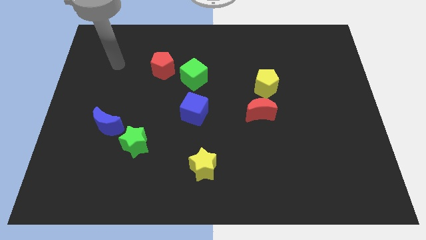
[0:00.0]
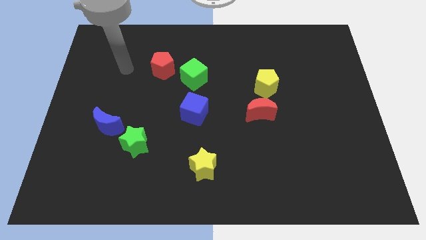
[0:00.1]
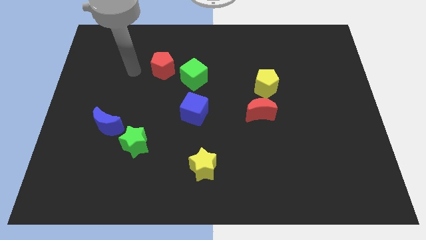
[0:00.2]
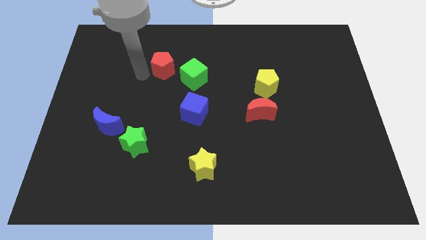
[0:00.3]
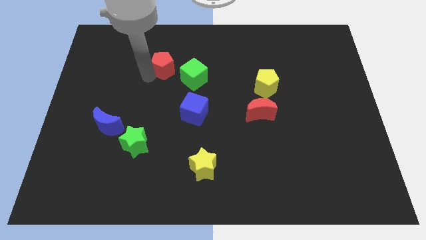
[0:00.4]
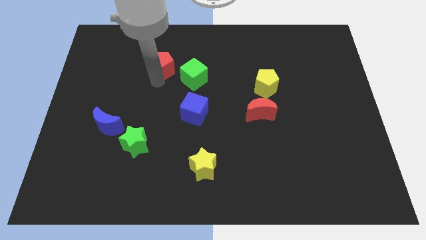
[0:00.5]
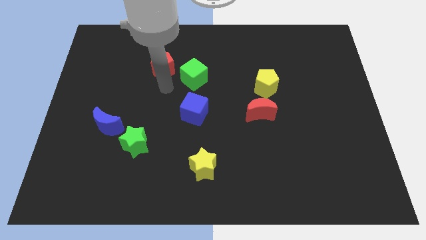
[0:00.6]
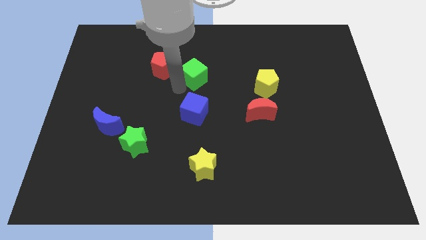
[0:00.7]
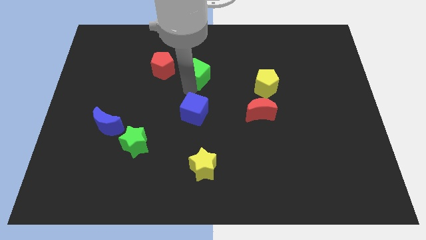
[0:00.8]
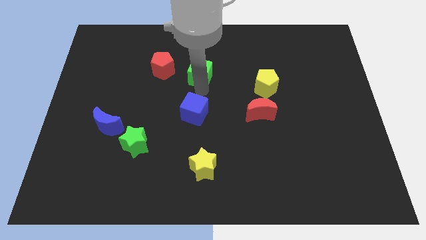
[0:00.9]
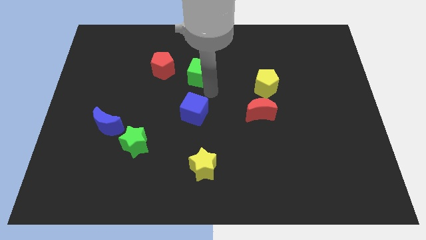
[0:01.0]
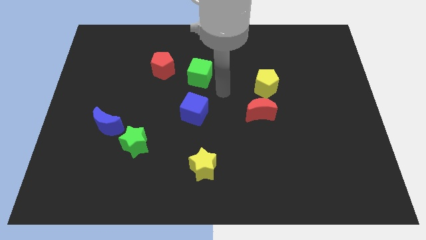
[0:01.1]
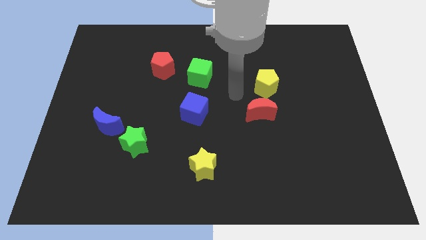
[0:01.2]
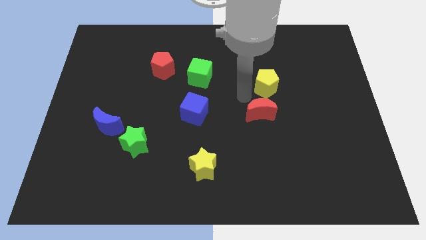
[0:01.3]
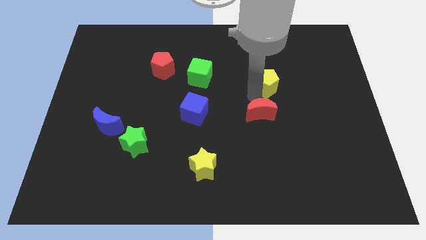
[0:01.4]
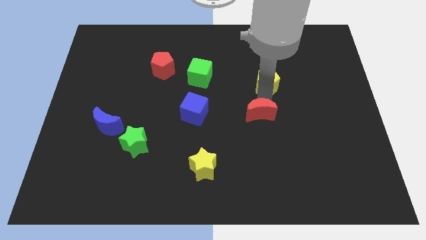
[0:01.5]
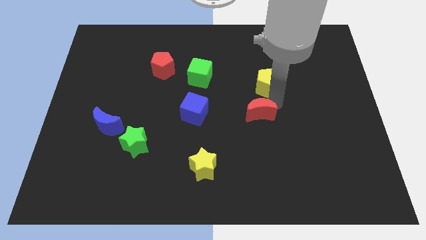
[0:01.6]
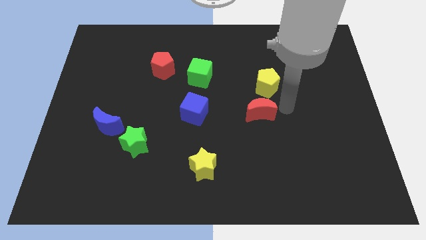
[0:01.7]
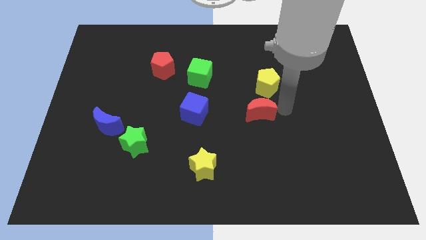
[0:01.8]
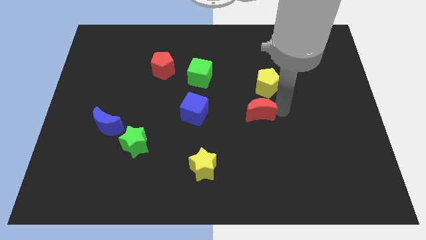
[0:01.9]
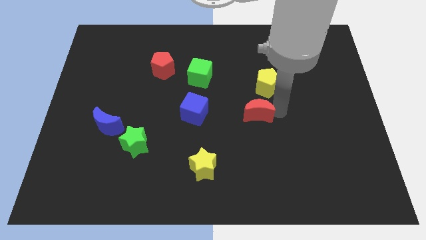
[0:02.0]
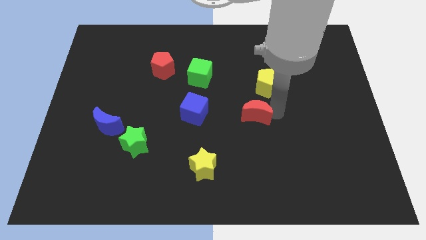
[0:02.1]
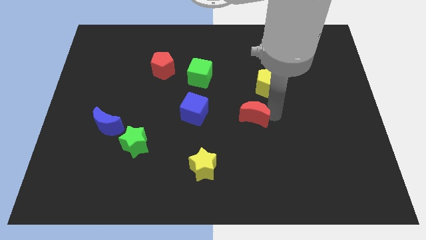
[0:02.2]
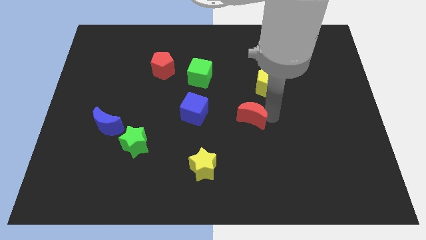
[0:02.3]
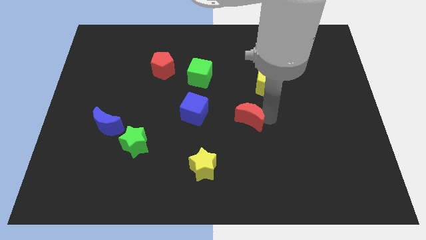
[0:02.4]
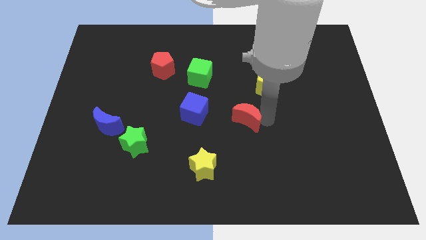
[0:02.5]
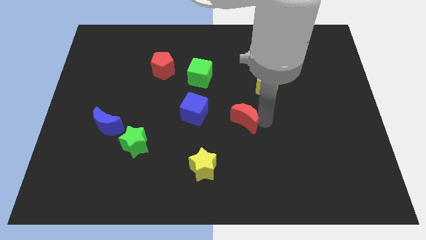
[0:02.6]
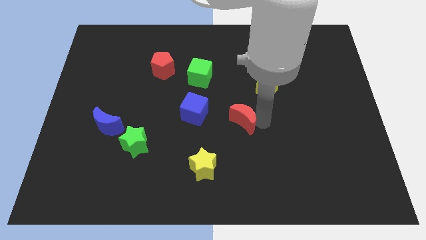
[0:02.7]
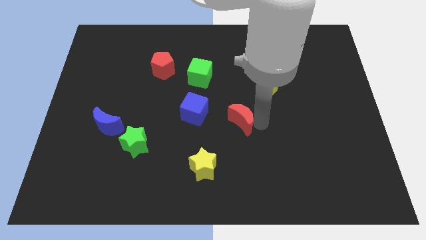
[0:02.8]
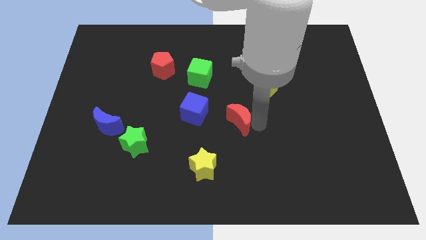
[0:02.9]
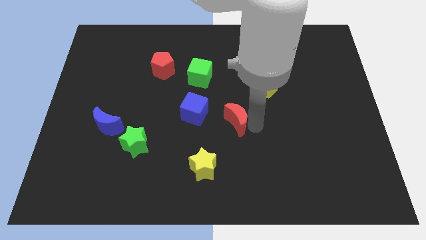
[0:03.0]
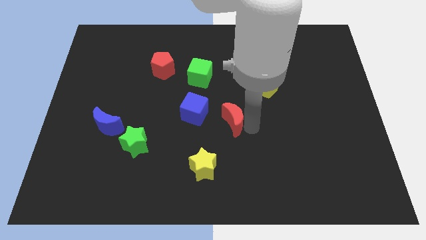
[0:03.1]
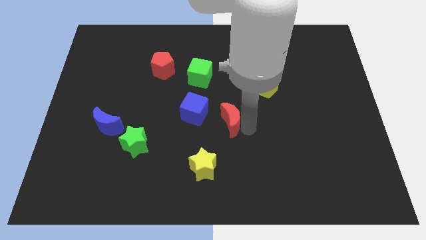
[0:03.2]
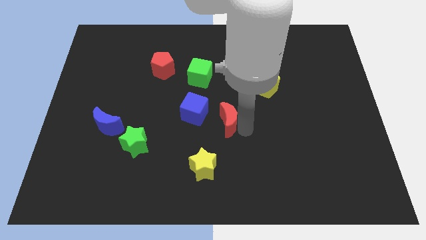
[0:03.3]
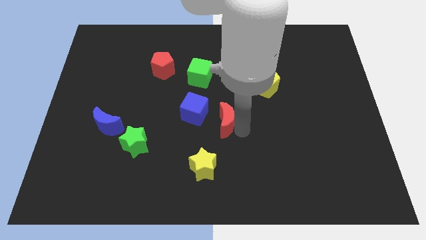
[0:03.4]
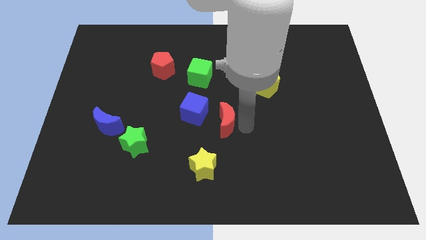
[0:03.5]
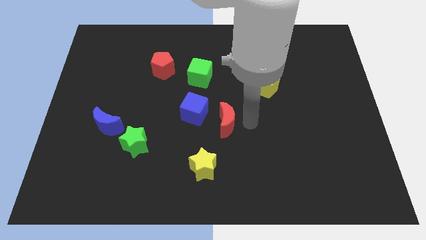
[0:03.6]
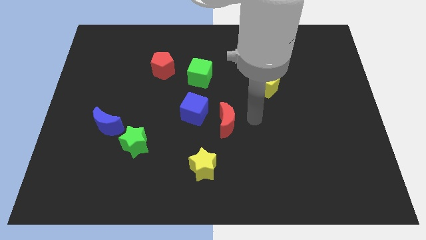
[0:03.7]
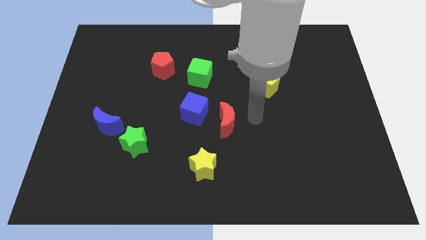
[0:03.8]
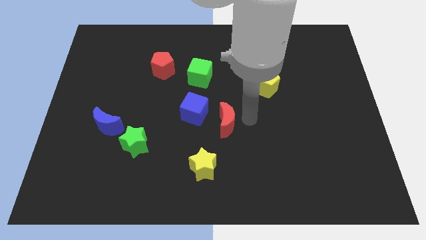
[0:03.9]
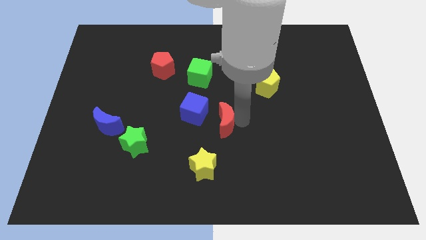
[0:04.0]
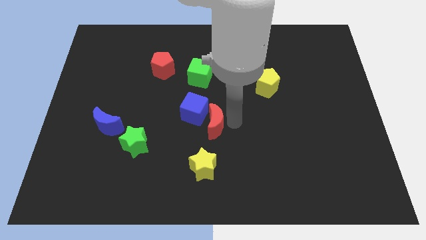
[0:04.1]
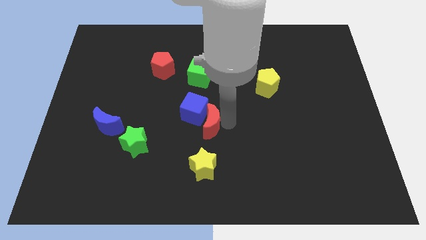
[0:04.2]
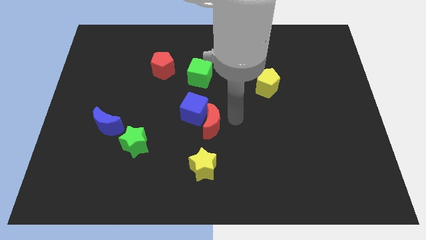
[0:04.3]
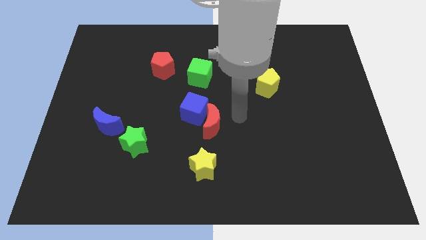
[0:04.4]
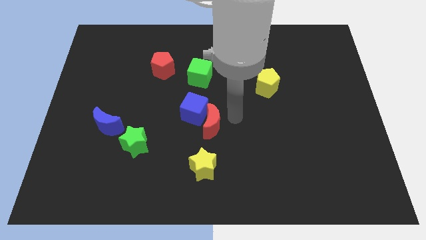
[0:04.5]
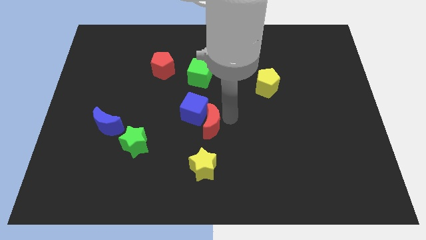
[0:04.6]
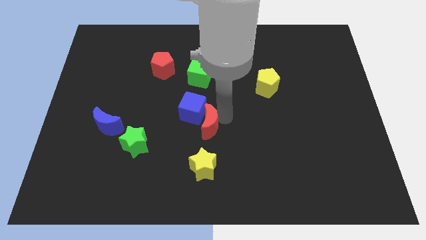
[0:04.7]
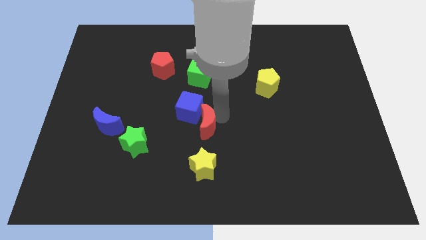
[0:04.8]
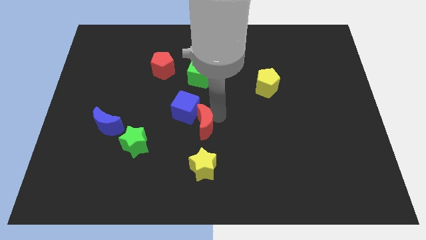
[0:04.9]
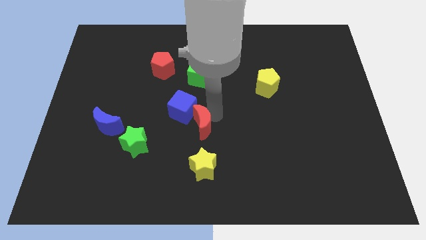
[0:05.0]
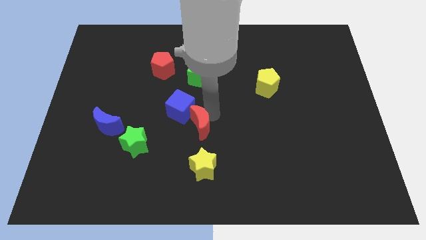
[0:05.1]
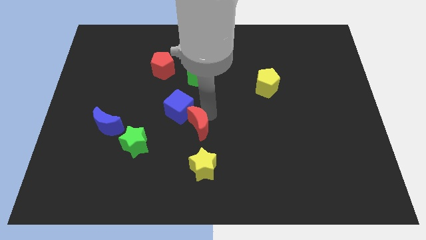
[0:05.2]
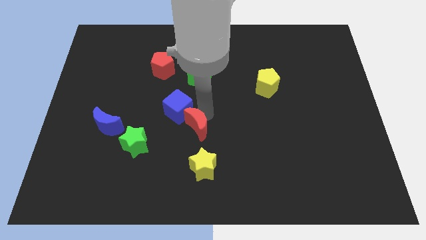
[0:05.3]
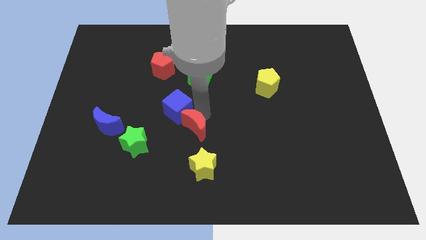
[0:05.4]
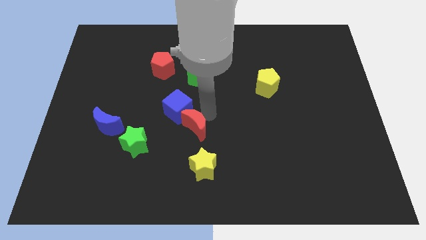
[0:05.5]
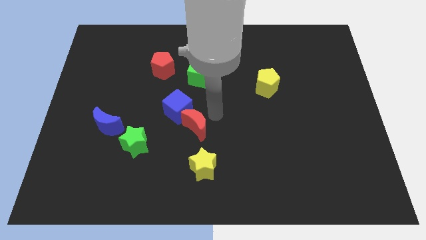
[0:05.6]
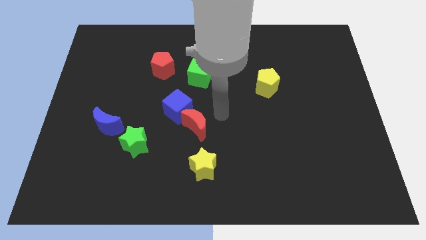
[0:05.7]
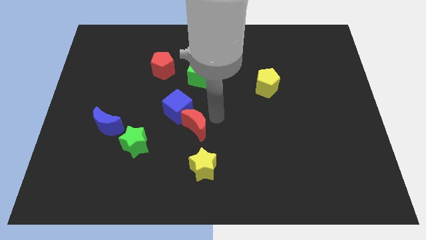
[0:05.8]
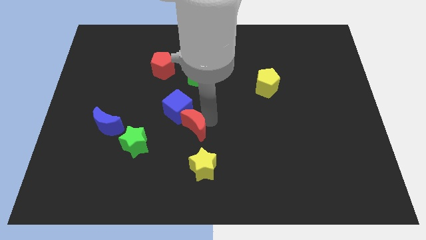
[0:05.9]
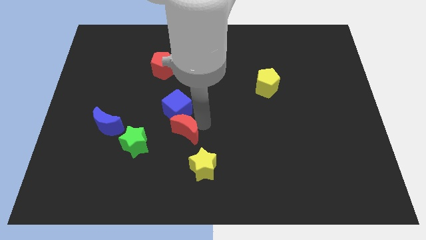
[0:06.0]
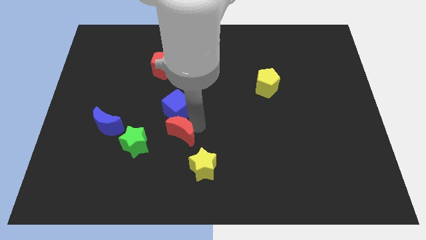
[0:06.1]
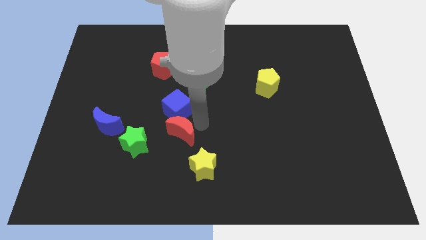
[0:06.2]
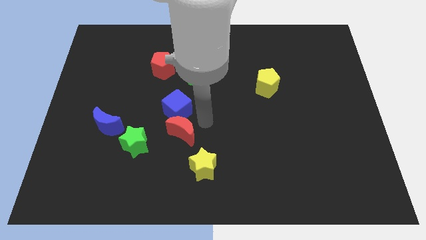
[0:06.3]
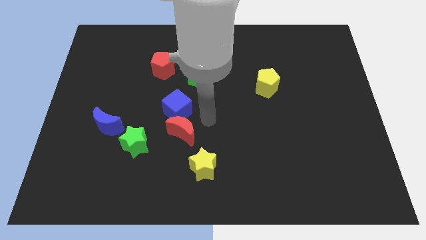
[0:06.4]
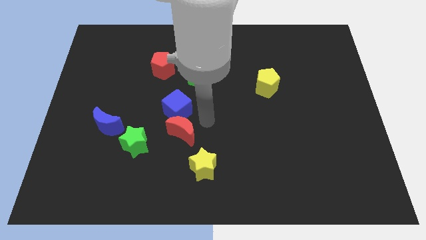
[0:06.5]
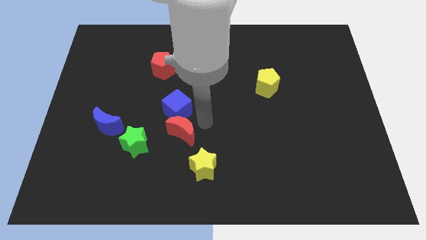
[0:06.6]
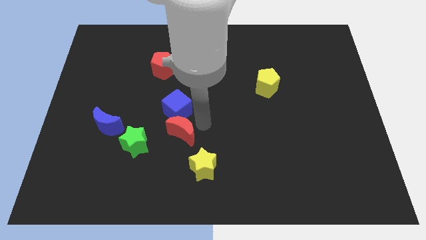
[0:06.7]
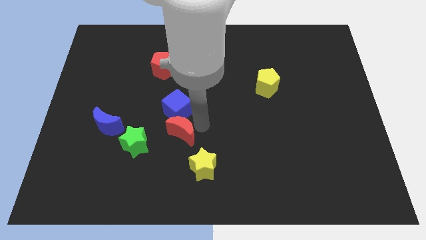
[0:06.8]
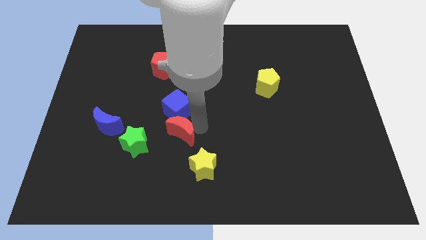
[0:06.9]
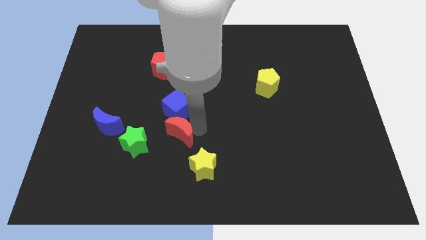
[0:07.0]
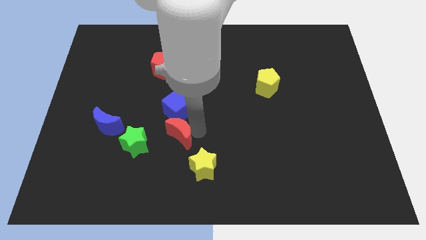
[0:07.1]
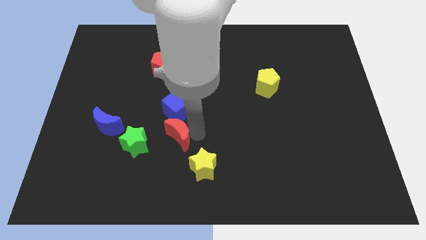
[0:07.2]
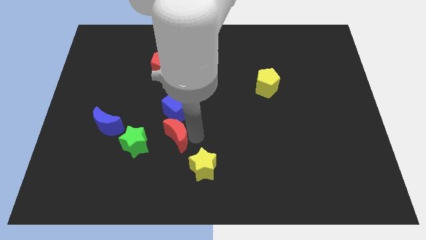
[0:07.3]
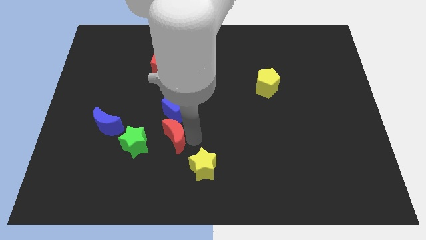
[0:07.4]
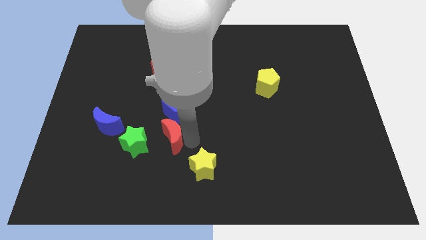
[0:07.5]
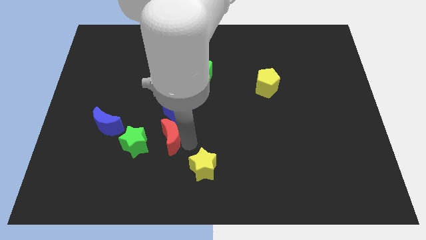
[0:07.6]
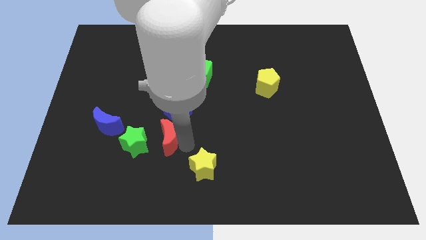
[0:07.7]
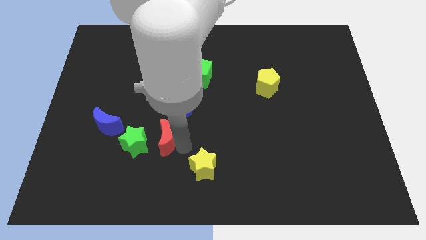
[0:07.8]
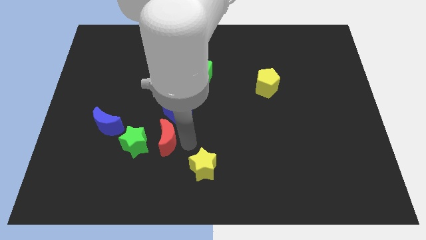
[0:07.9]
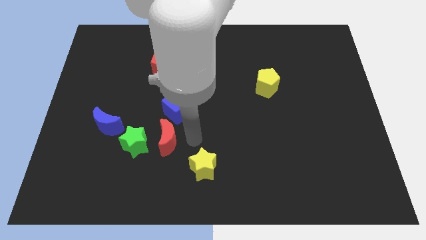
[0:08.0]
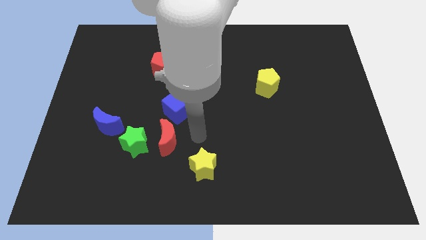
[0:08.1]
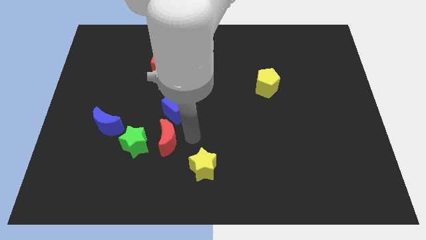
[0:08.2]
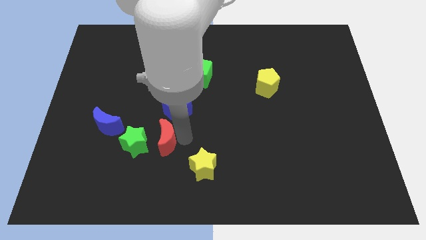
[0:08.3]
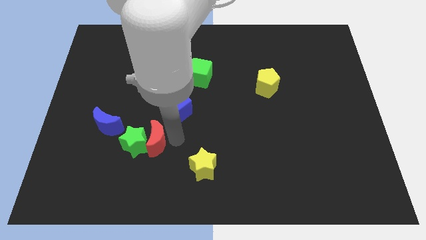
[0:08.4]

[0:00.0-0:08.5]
slide the red moon next to the green star
